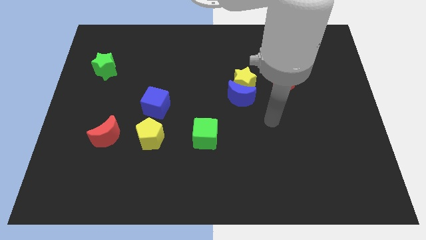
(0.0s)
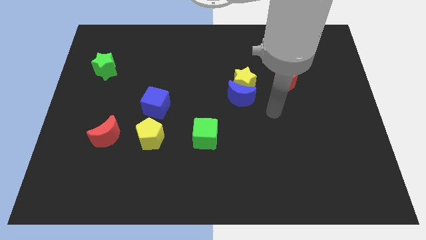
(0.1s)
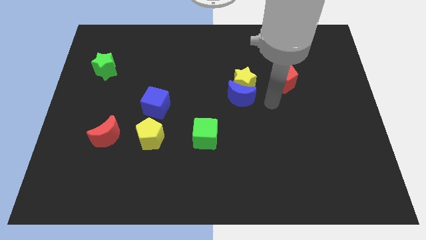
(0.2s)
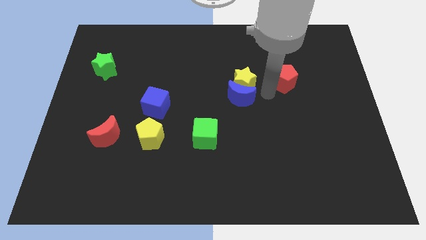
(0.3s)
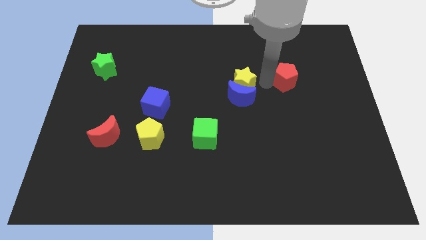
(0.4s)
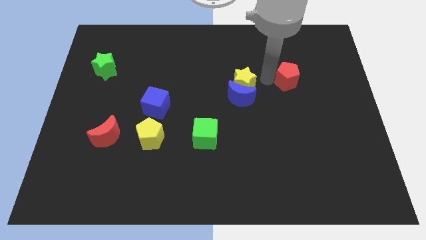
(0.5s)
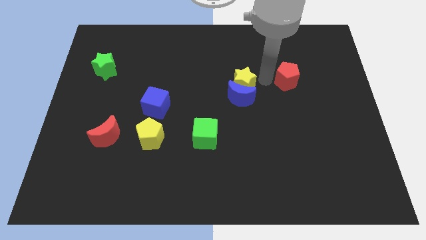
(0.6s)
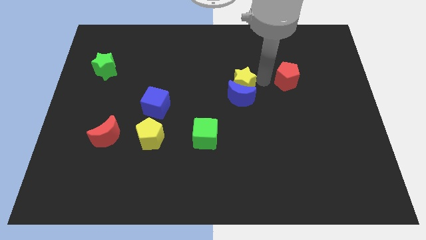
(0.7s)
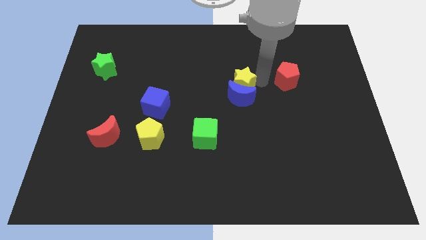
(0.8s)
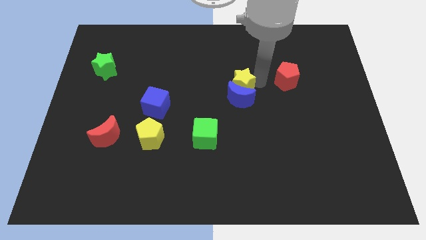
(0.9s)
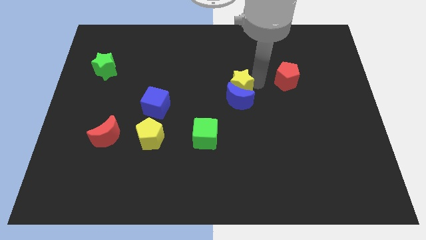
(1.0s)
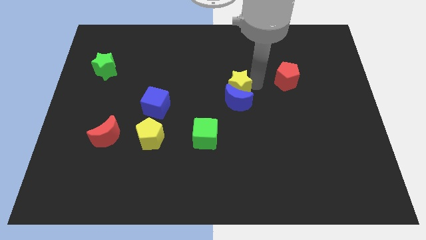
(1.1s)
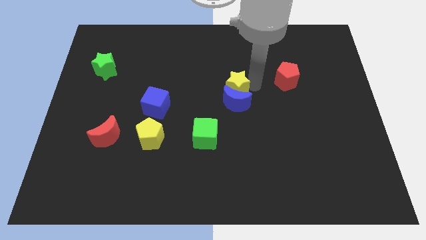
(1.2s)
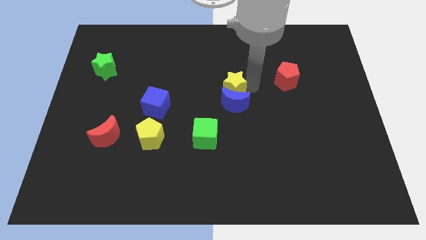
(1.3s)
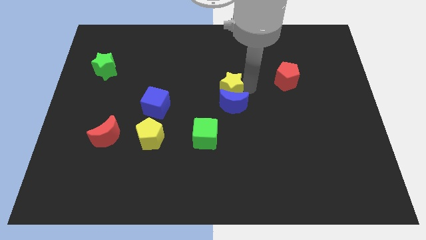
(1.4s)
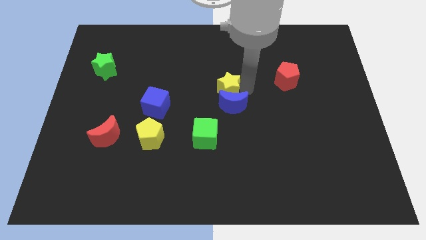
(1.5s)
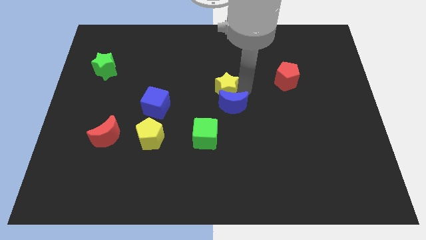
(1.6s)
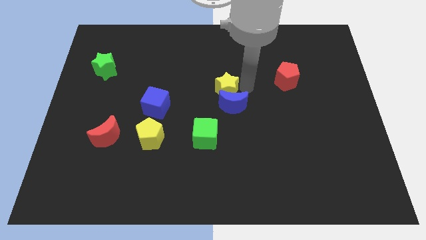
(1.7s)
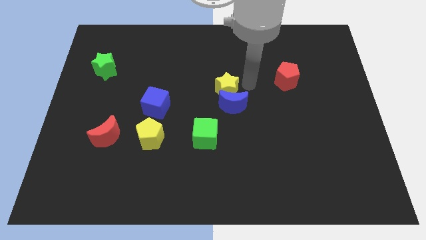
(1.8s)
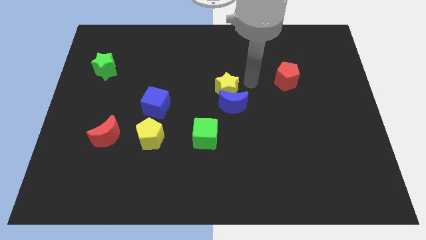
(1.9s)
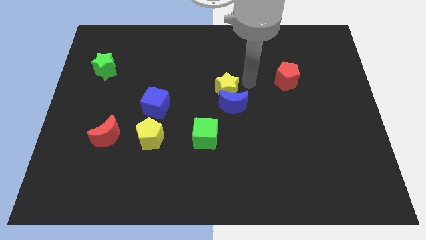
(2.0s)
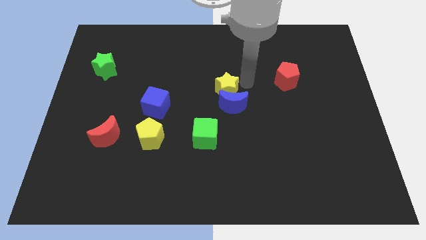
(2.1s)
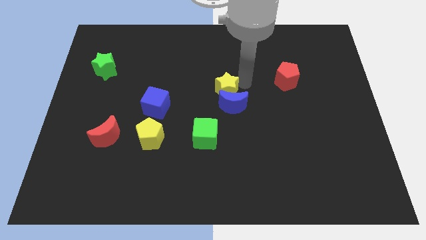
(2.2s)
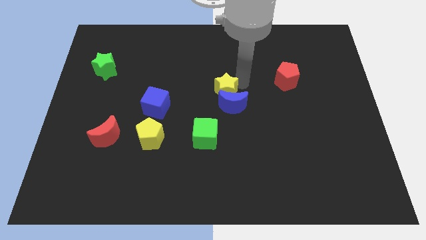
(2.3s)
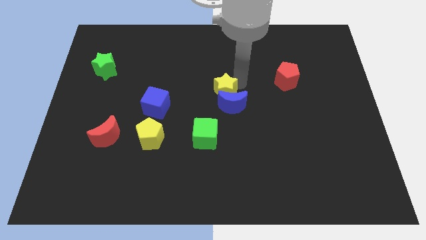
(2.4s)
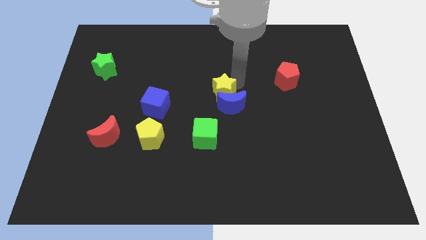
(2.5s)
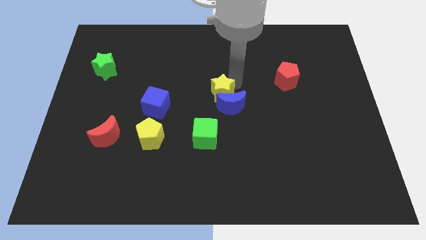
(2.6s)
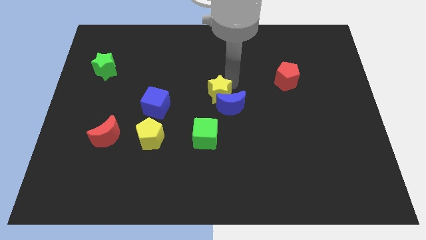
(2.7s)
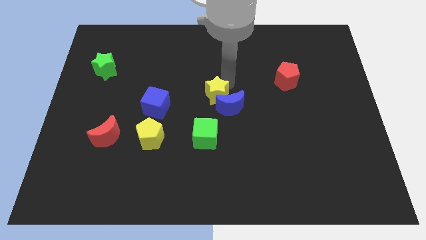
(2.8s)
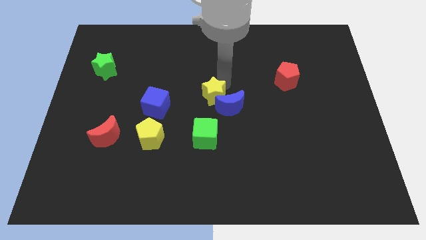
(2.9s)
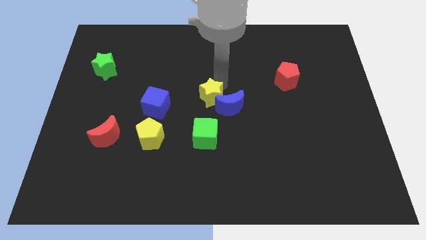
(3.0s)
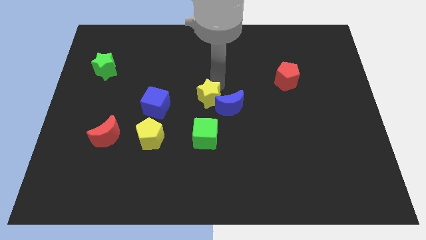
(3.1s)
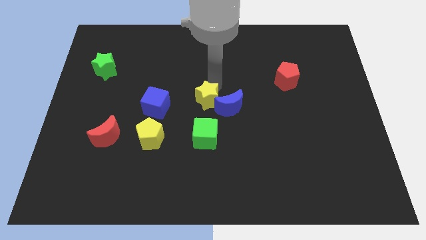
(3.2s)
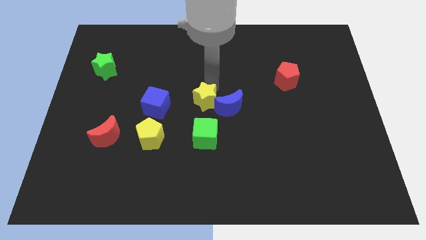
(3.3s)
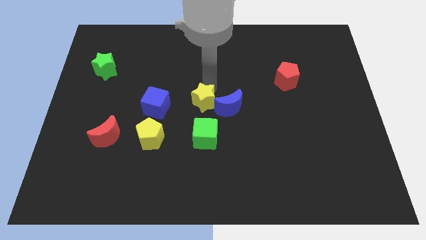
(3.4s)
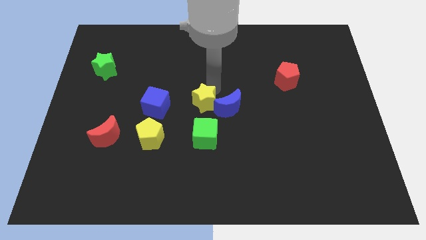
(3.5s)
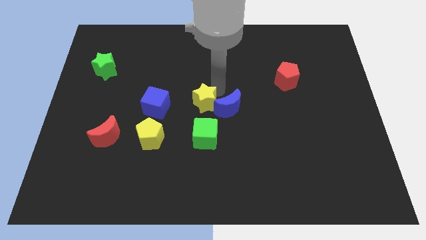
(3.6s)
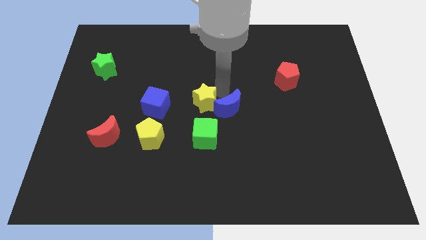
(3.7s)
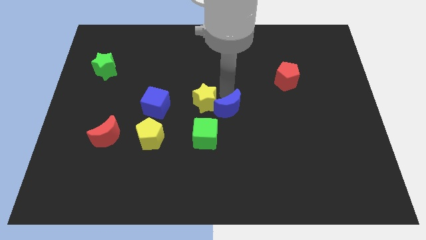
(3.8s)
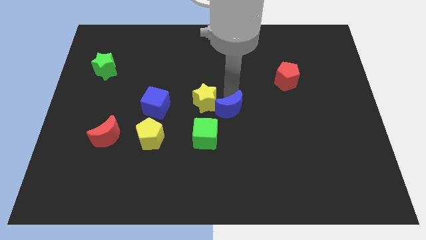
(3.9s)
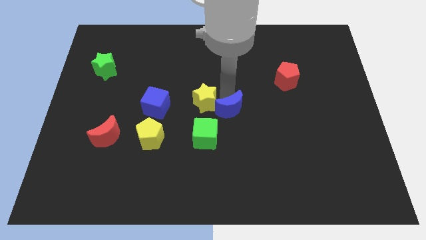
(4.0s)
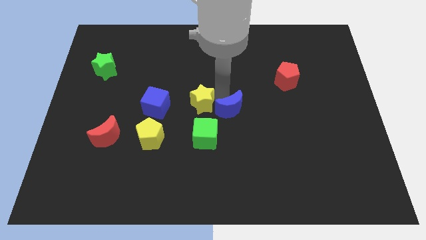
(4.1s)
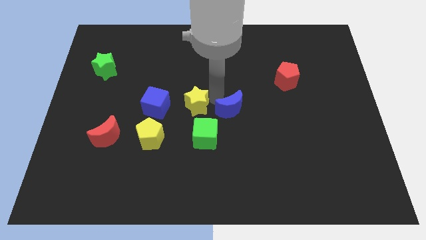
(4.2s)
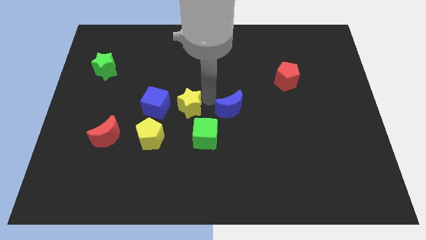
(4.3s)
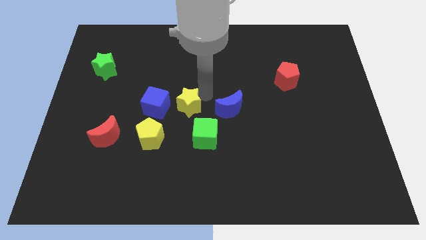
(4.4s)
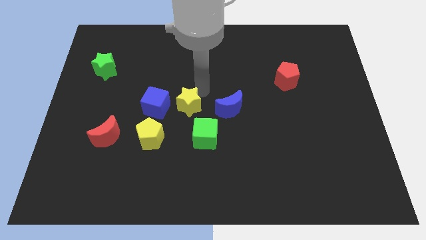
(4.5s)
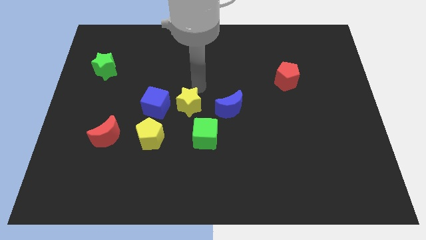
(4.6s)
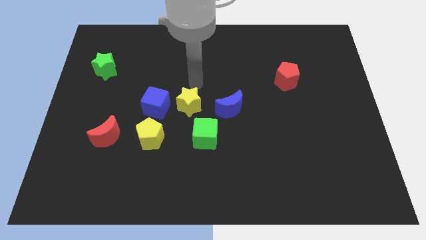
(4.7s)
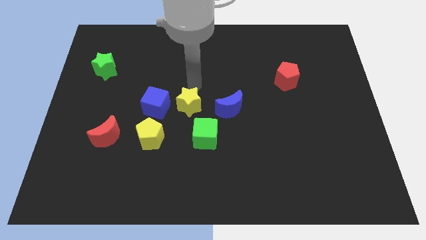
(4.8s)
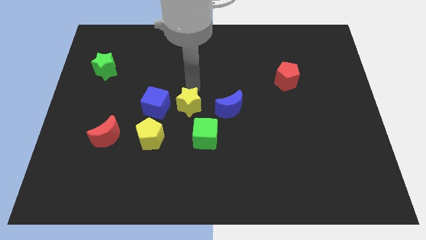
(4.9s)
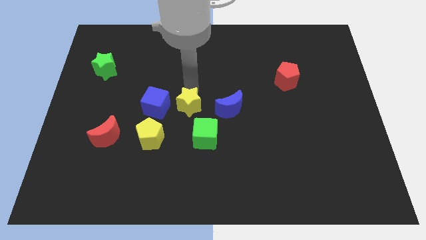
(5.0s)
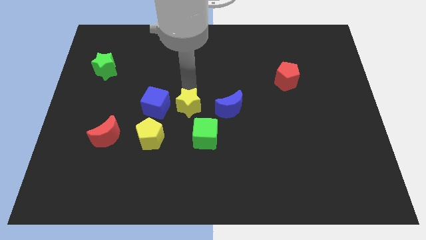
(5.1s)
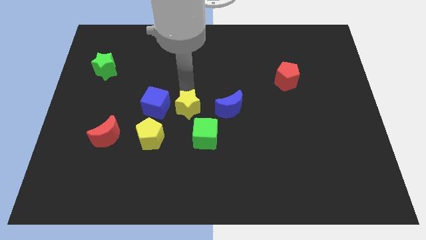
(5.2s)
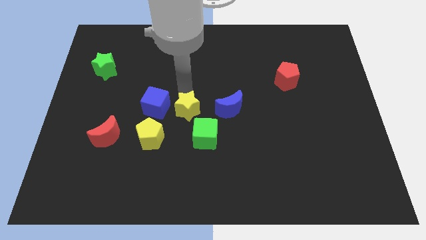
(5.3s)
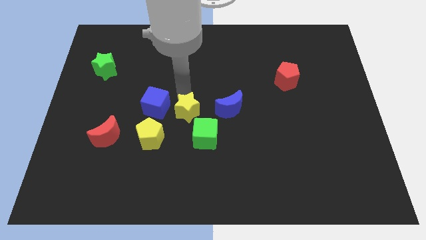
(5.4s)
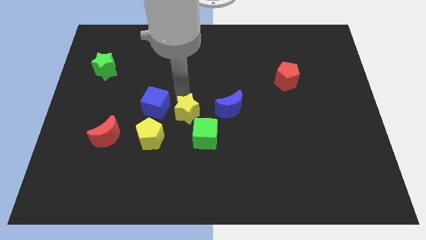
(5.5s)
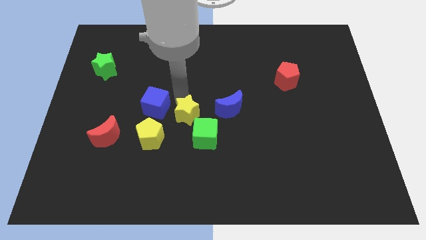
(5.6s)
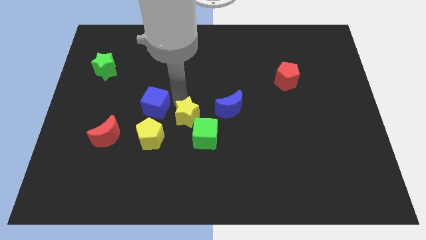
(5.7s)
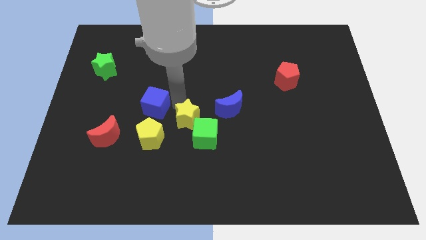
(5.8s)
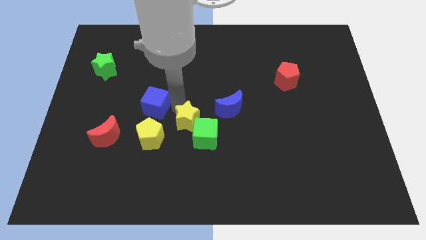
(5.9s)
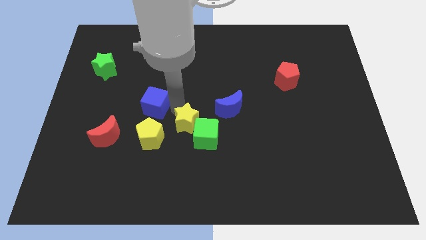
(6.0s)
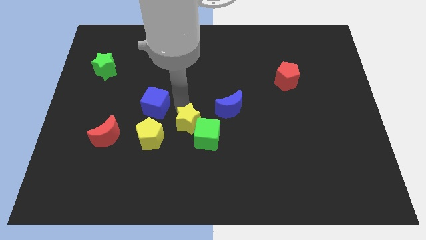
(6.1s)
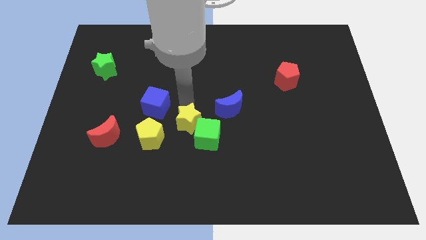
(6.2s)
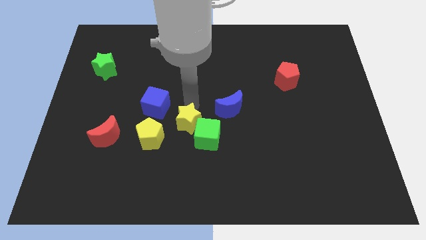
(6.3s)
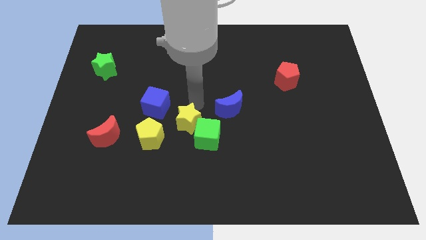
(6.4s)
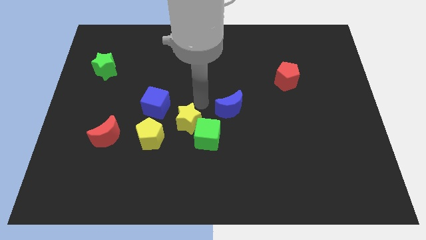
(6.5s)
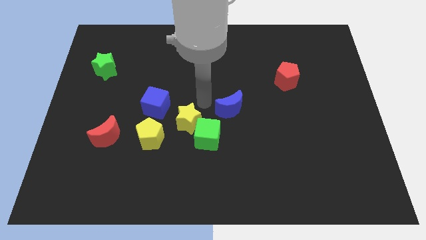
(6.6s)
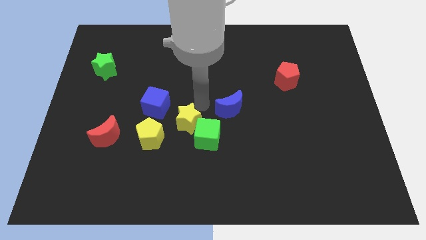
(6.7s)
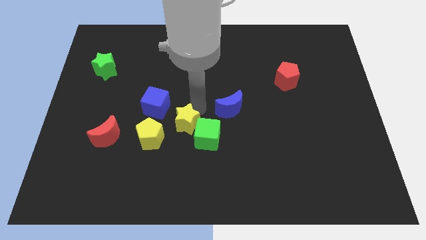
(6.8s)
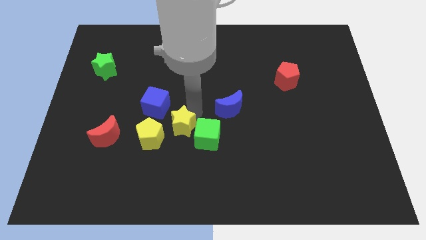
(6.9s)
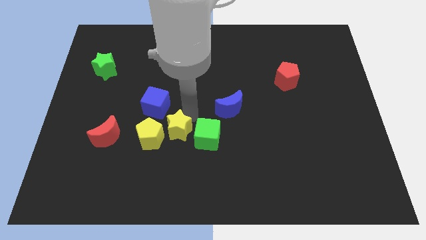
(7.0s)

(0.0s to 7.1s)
slide the yellow star downwards and left diagonally

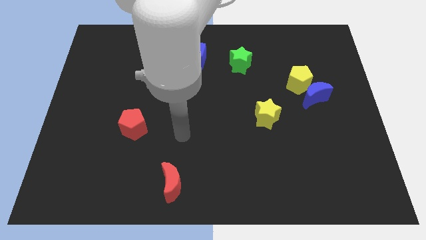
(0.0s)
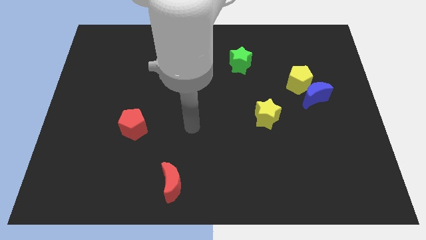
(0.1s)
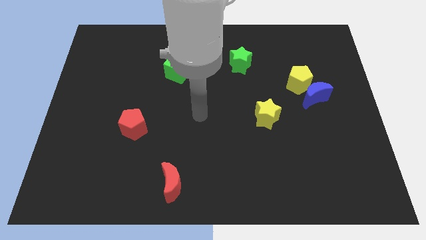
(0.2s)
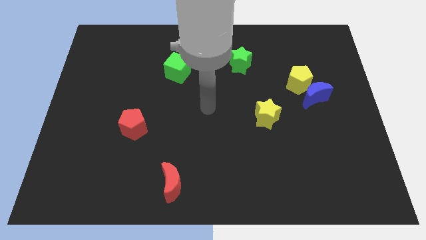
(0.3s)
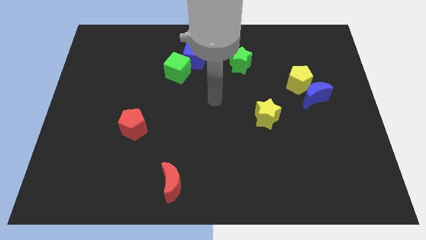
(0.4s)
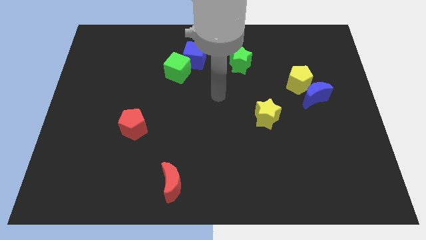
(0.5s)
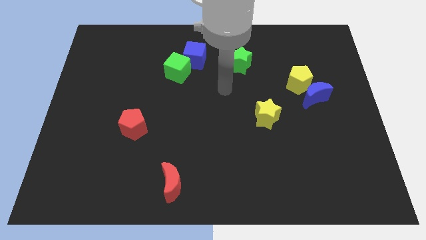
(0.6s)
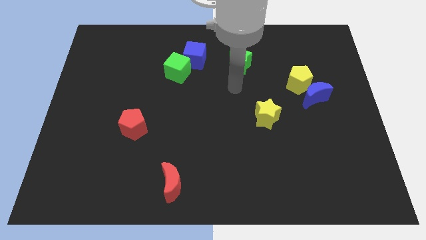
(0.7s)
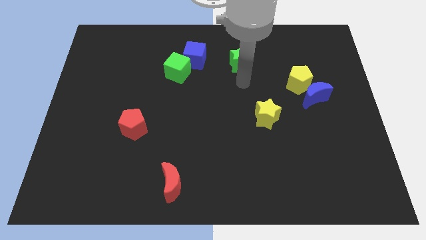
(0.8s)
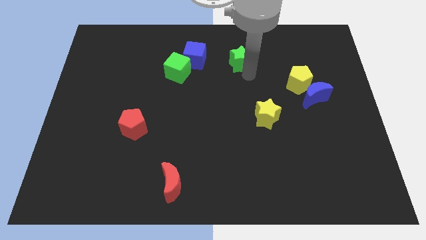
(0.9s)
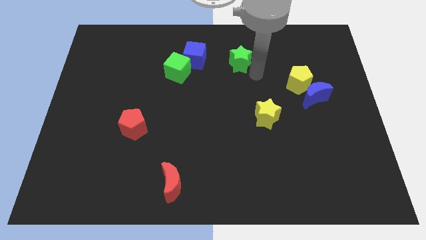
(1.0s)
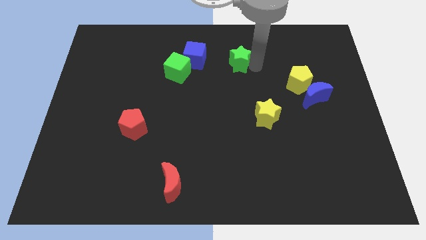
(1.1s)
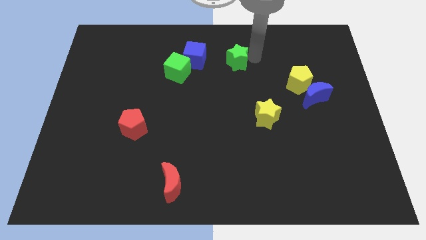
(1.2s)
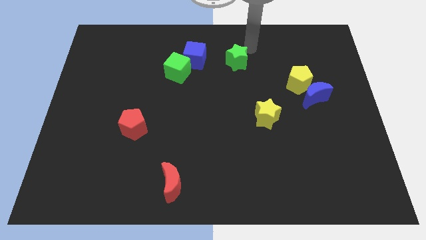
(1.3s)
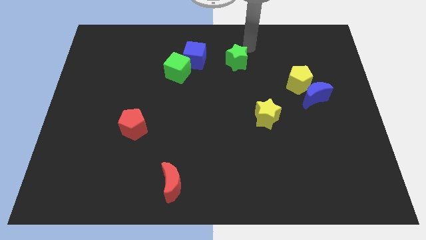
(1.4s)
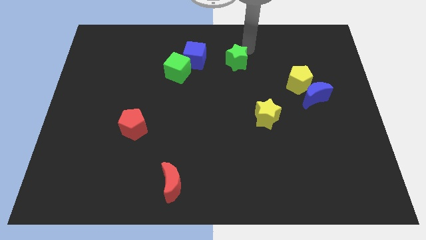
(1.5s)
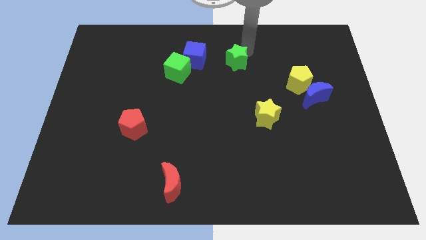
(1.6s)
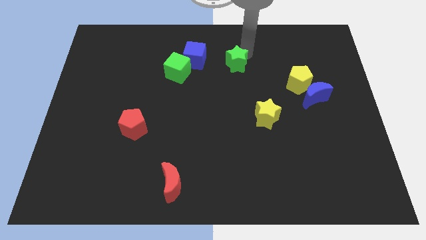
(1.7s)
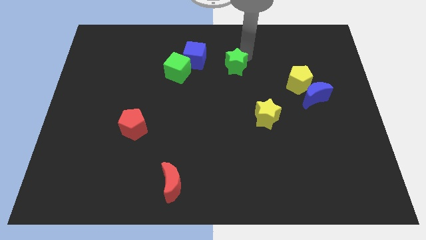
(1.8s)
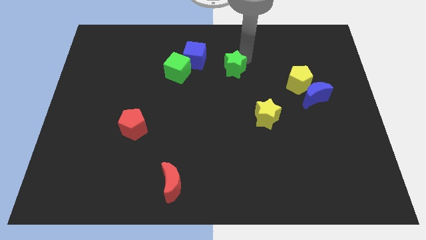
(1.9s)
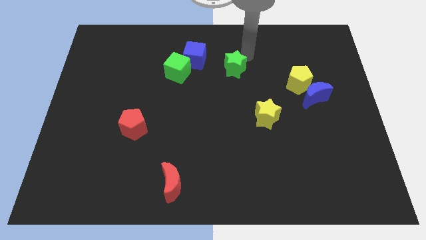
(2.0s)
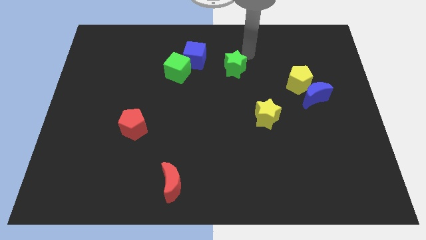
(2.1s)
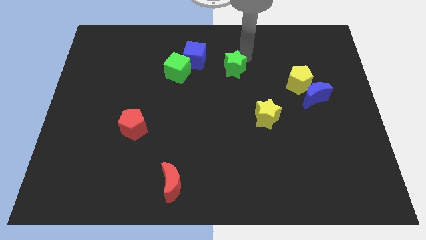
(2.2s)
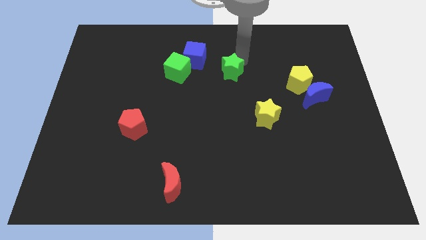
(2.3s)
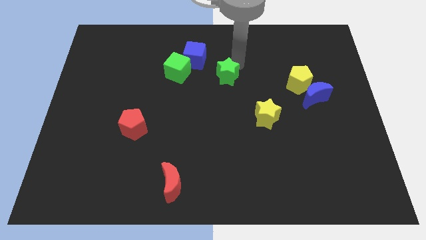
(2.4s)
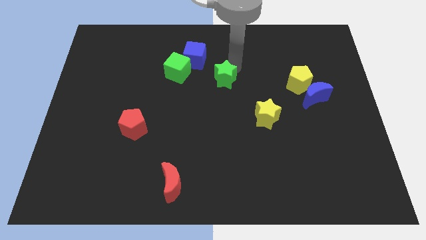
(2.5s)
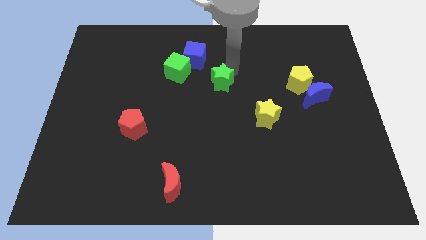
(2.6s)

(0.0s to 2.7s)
slightly slide the green star downwards and left
